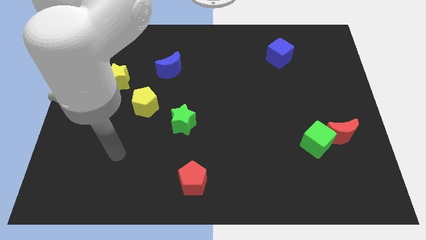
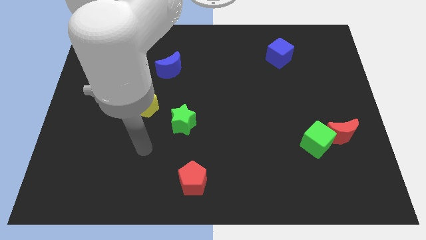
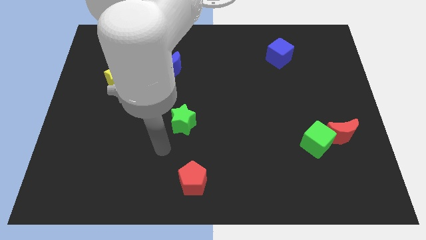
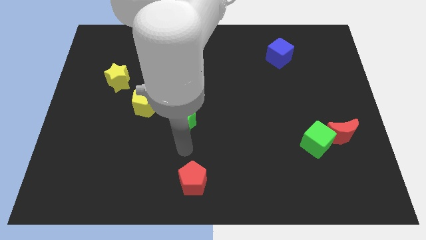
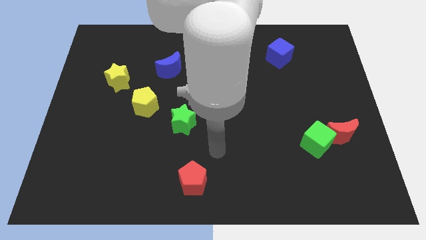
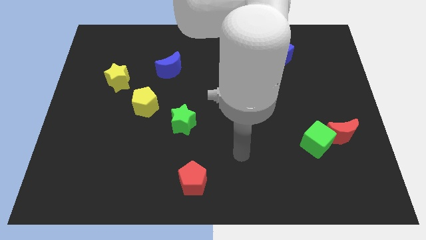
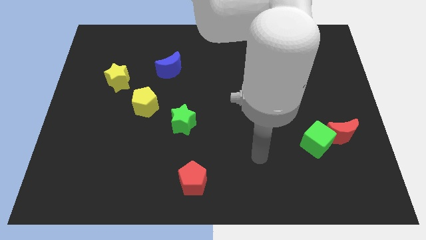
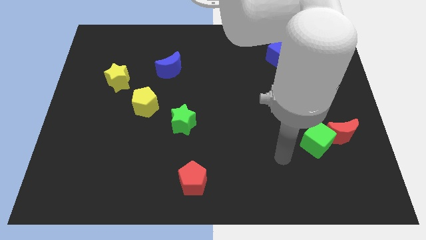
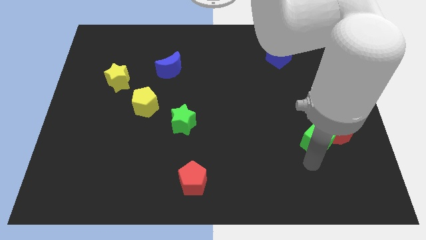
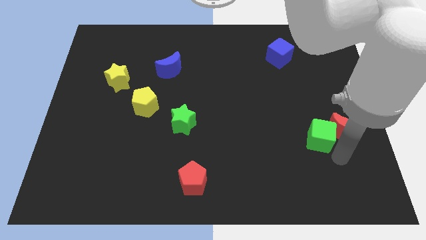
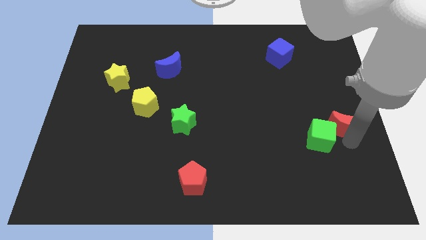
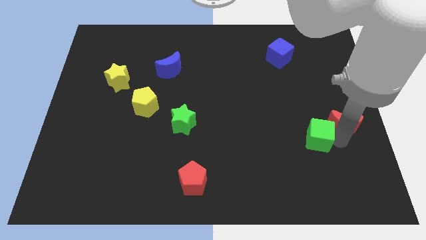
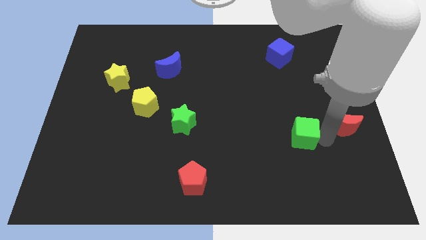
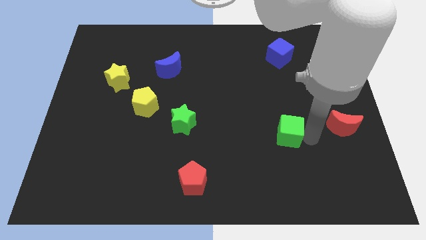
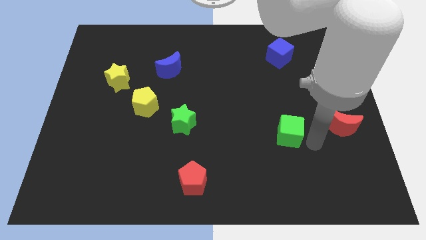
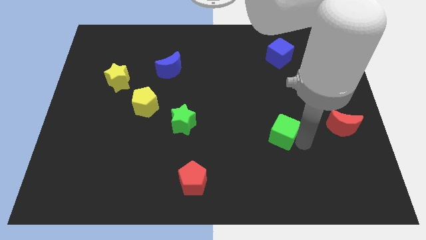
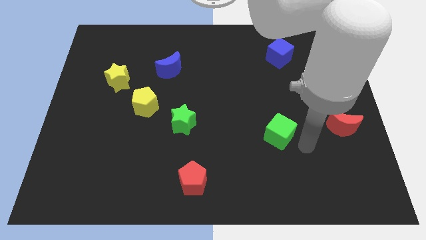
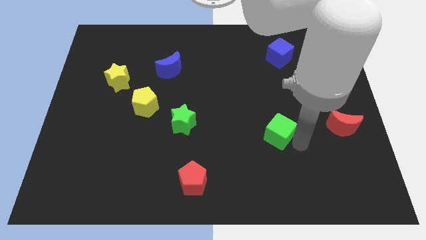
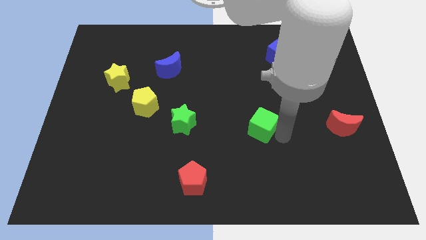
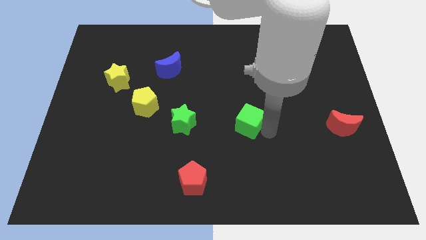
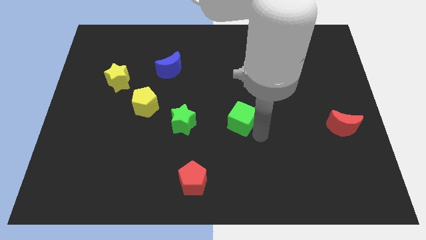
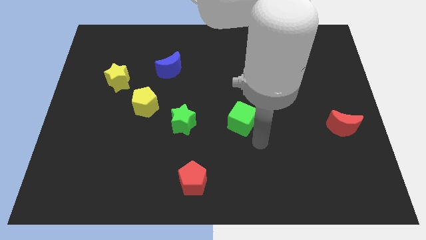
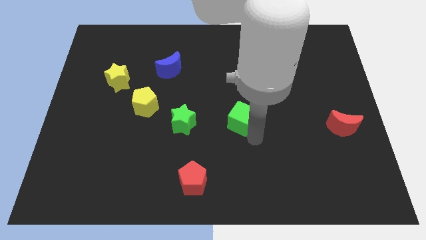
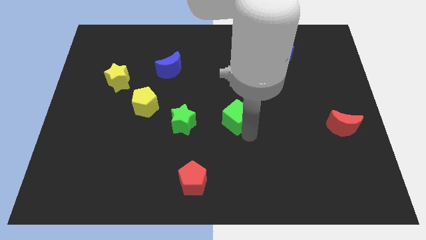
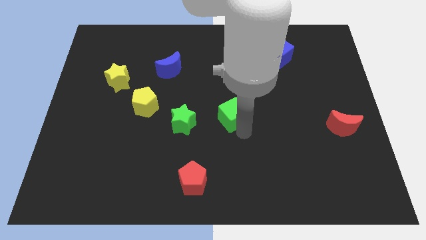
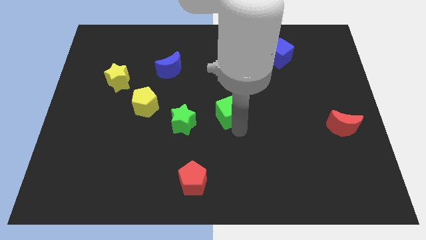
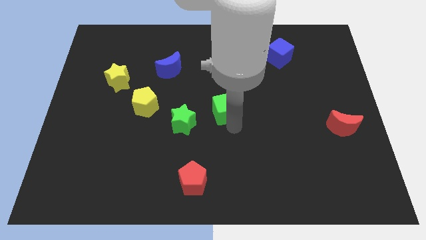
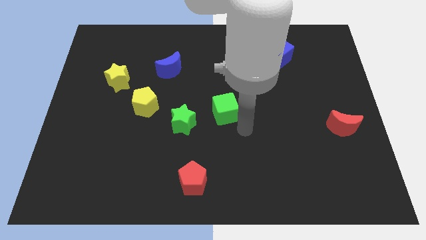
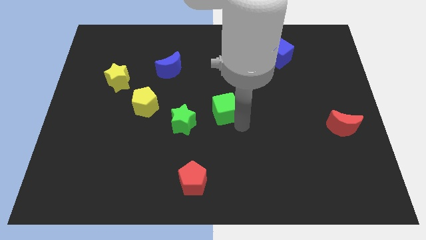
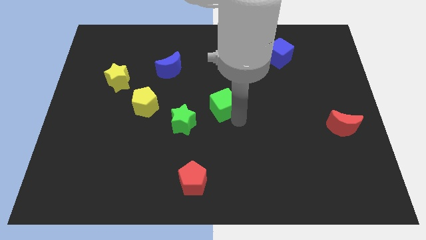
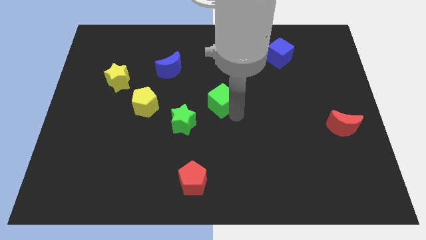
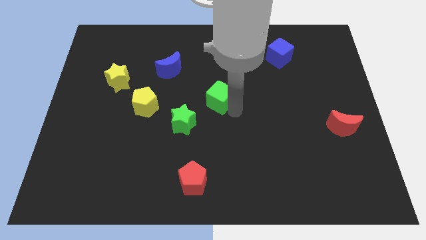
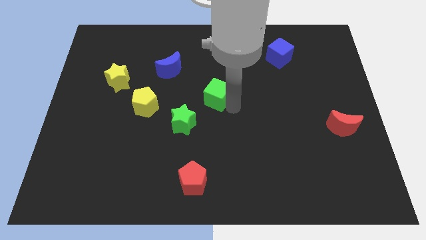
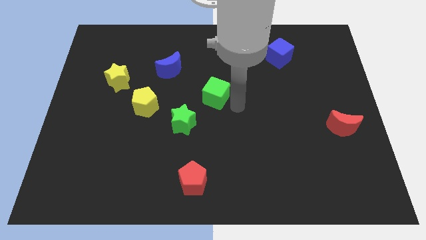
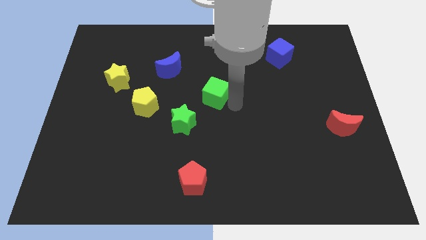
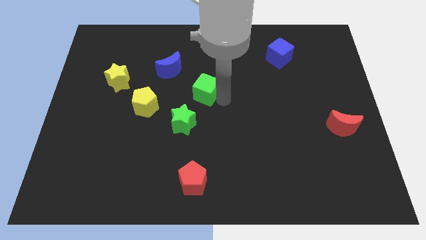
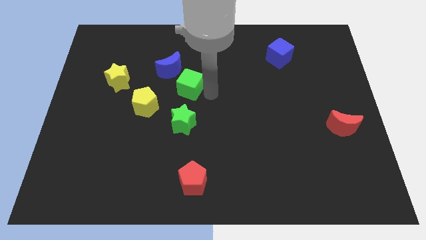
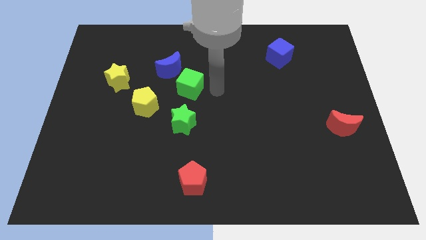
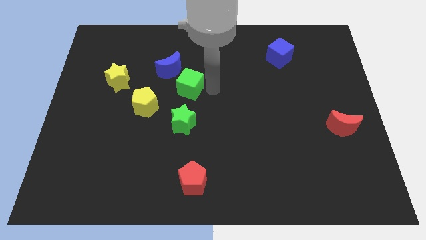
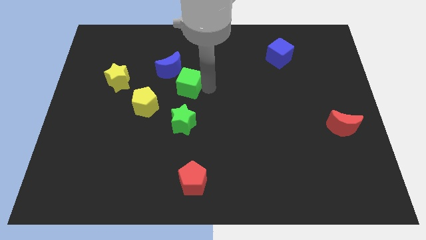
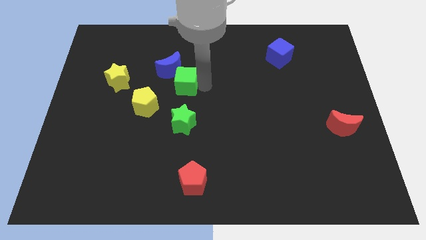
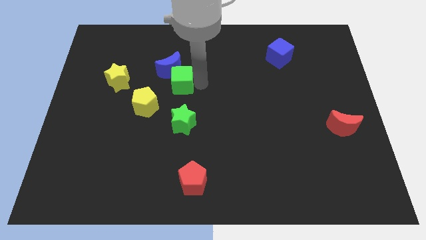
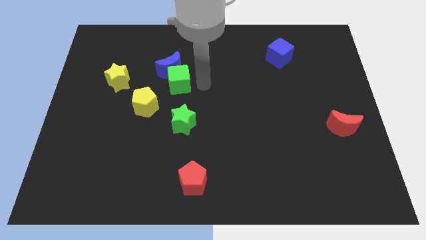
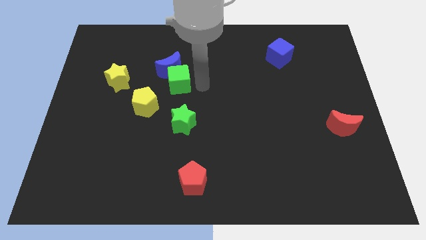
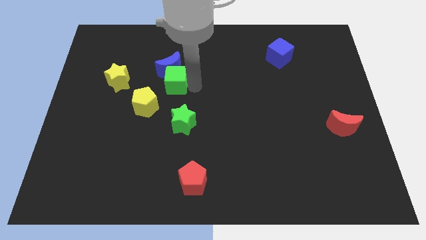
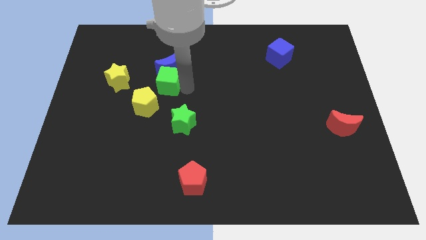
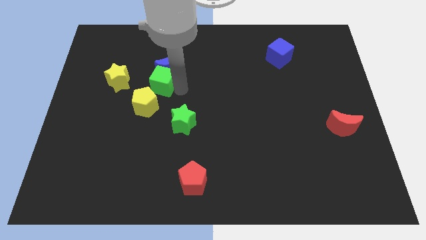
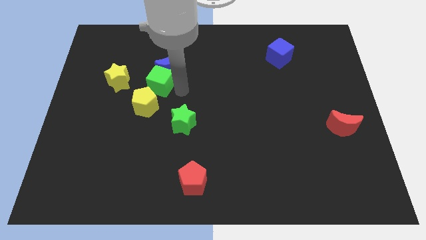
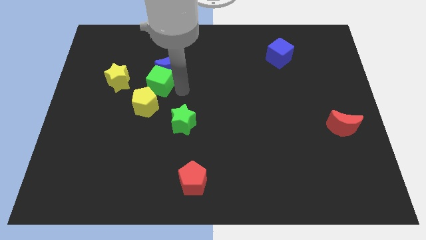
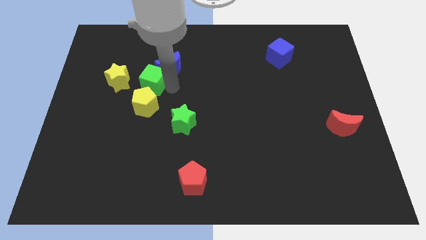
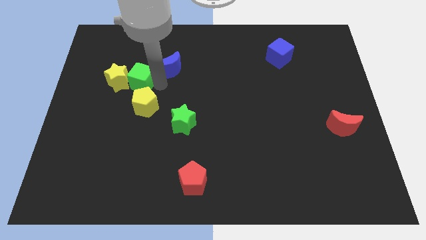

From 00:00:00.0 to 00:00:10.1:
move the green cube close to the yellow star

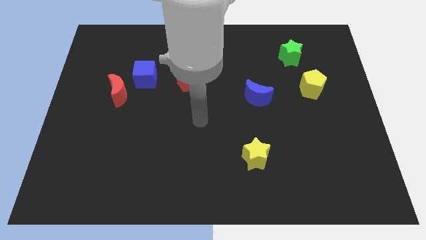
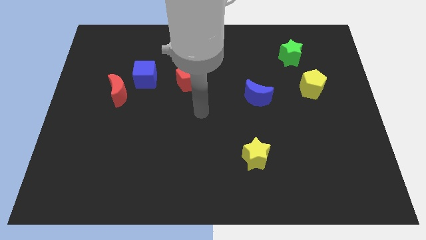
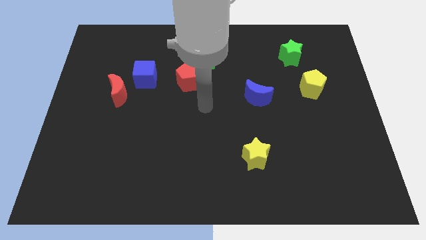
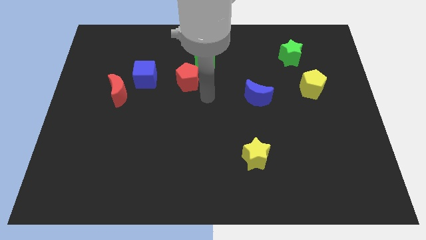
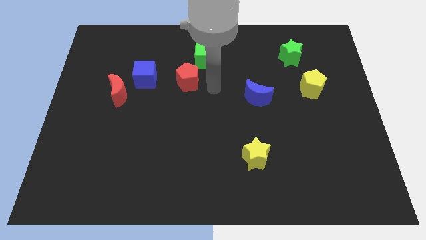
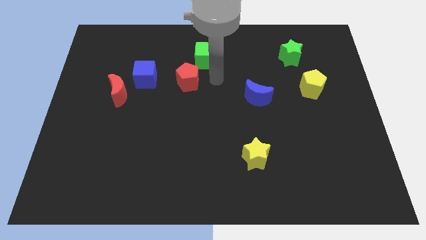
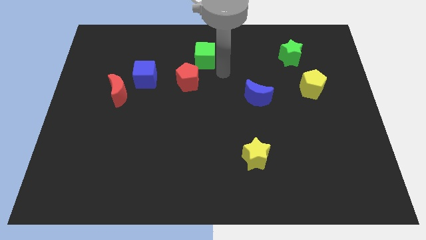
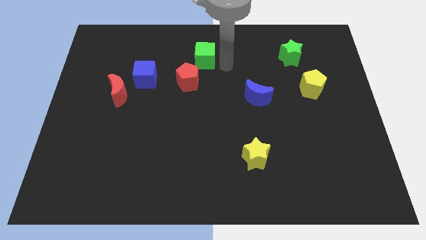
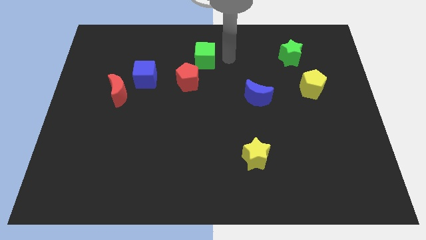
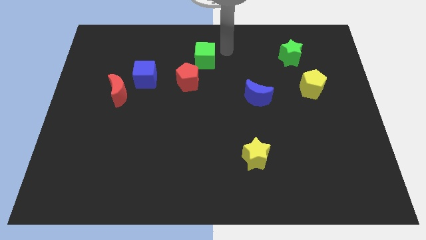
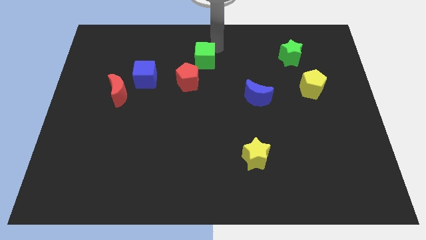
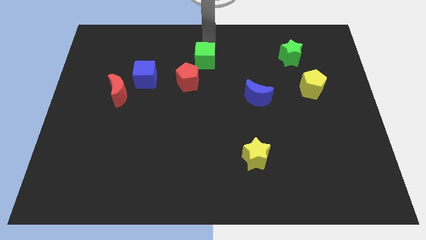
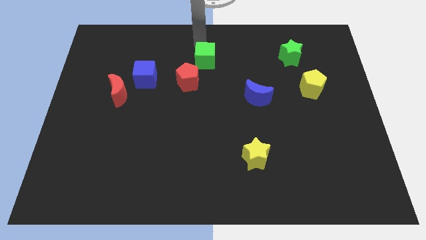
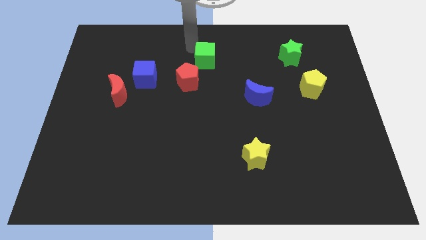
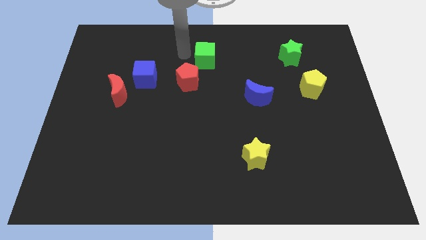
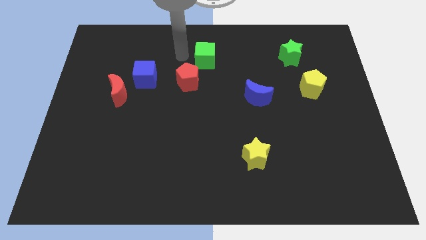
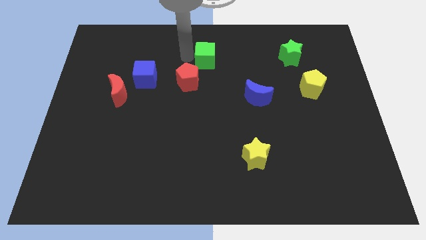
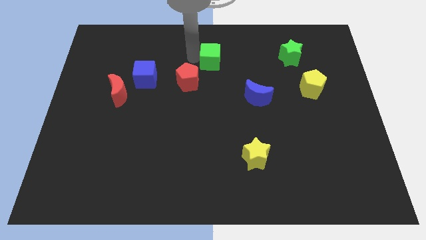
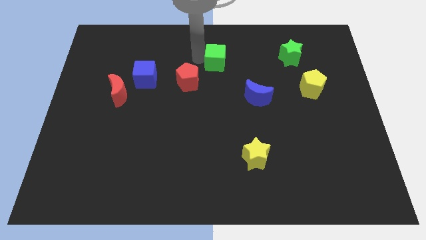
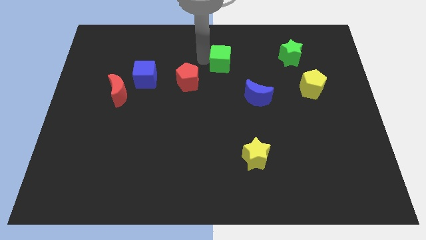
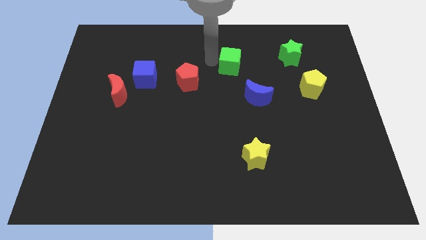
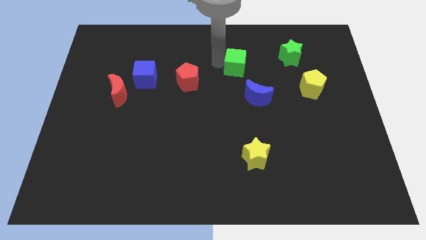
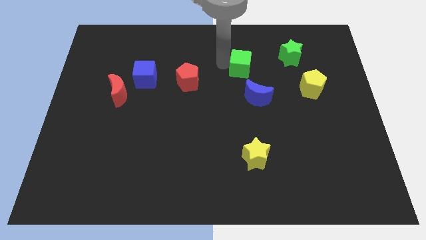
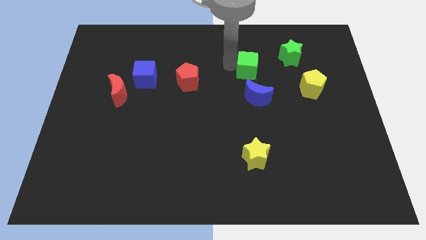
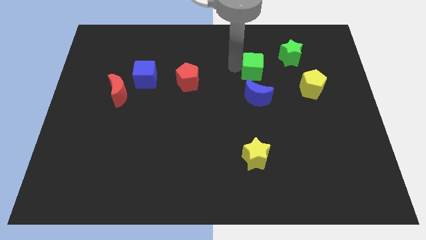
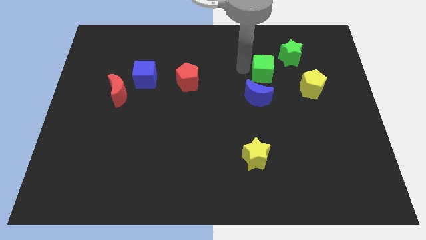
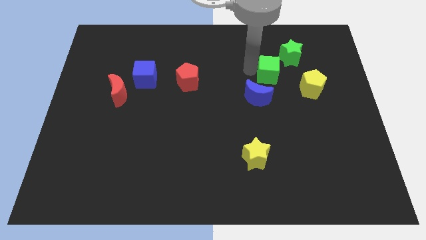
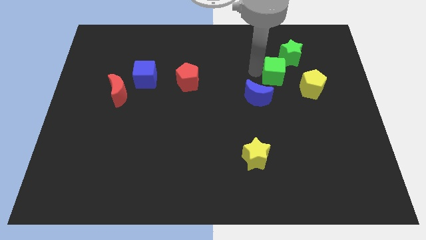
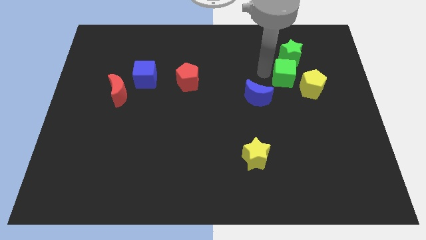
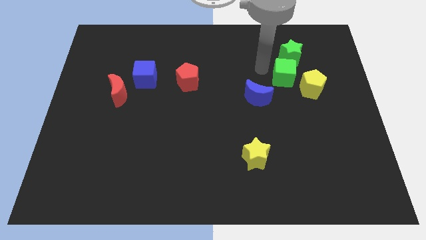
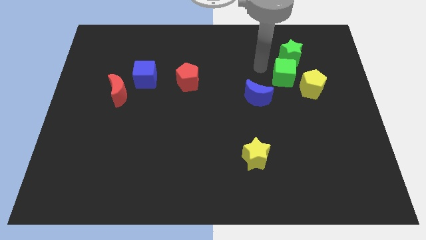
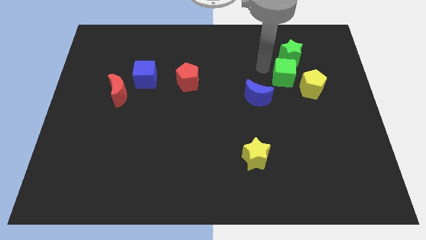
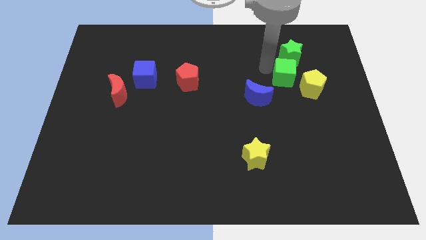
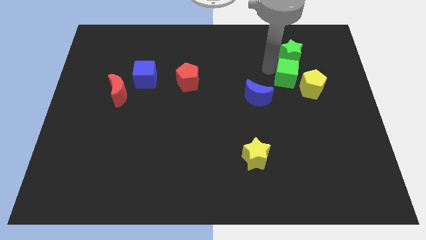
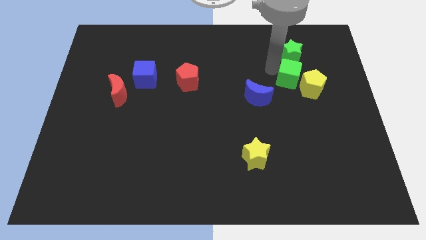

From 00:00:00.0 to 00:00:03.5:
move the green cube to the yellow pentagon
